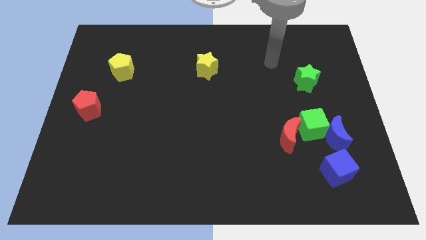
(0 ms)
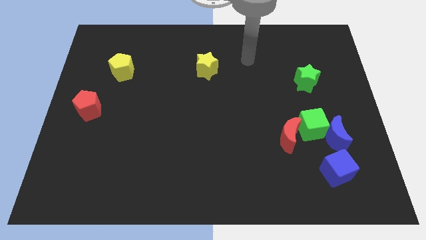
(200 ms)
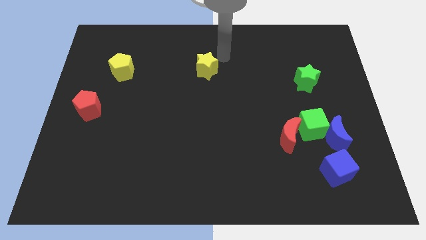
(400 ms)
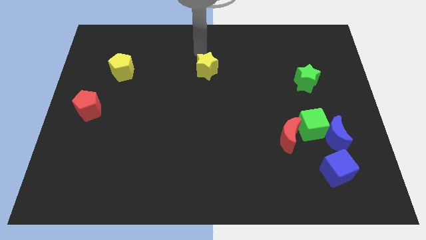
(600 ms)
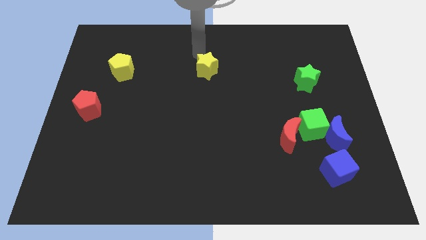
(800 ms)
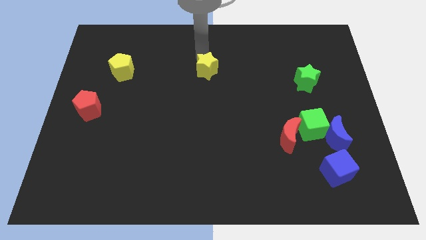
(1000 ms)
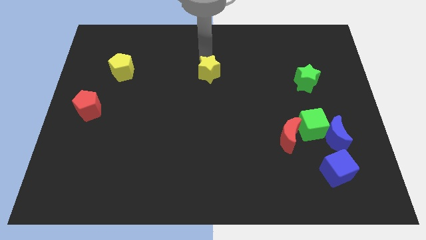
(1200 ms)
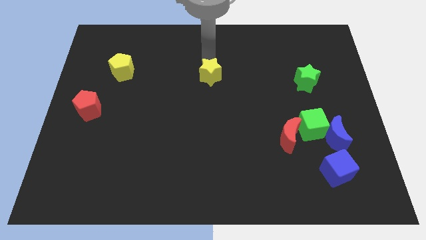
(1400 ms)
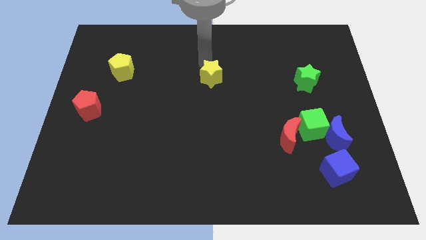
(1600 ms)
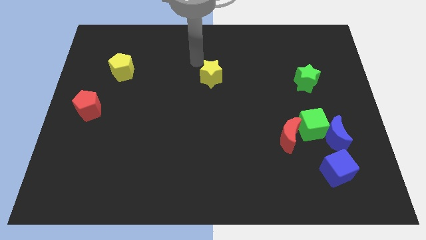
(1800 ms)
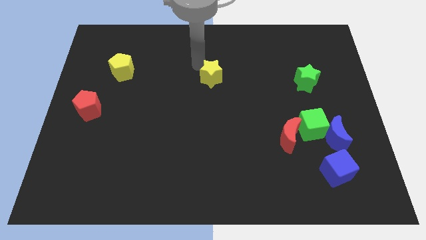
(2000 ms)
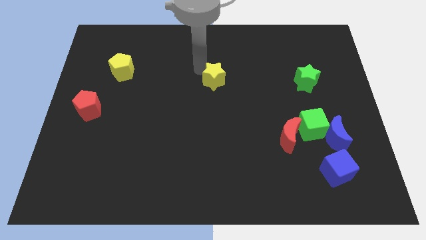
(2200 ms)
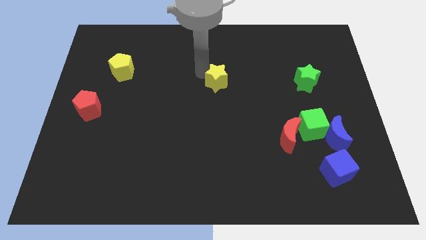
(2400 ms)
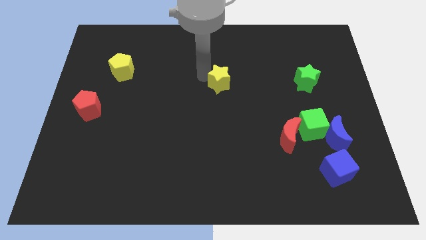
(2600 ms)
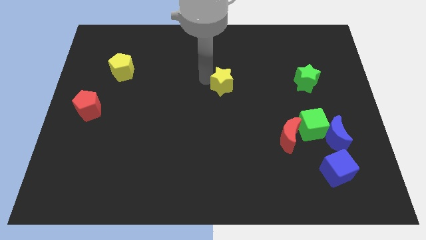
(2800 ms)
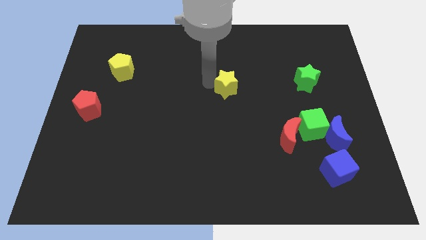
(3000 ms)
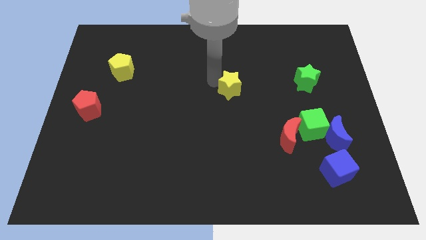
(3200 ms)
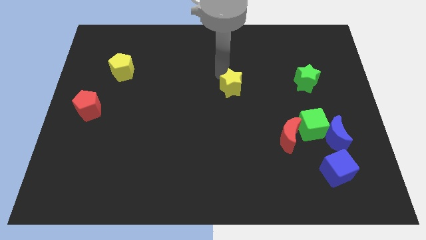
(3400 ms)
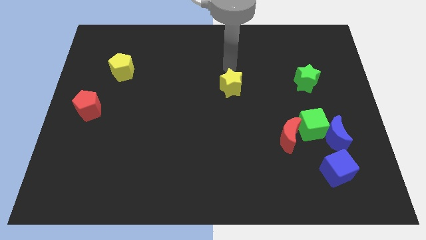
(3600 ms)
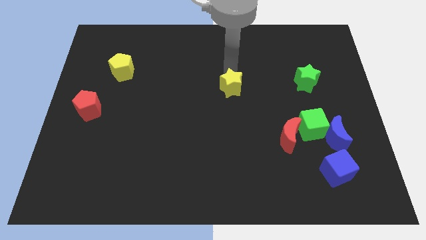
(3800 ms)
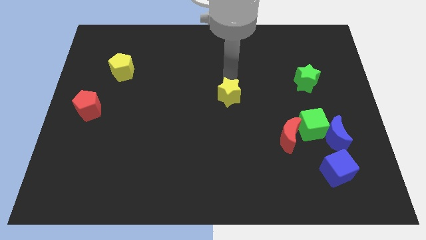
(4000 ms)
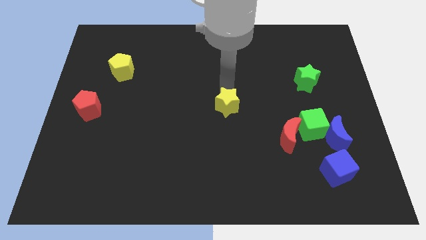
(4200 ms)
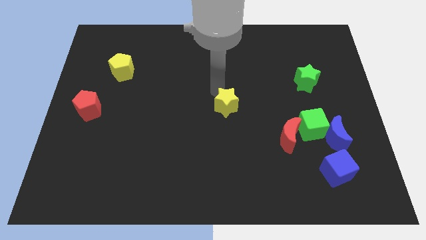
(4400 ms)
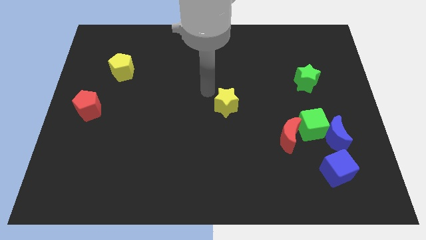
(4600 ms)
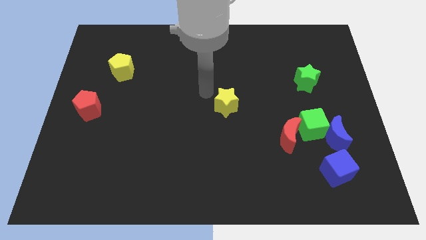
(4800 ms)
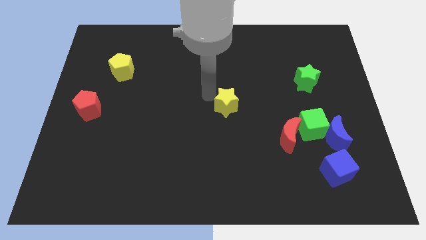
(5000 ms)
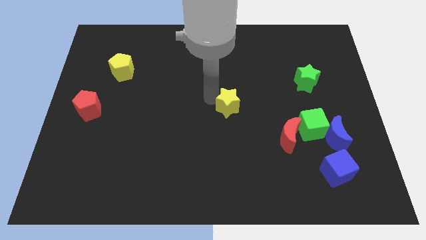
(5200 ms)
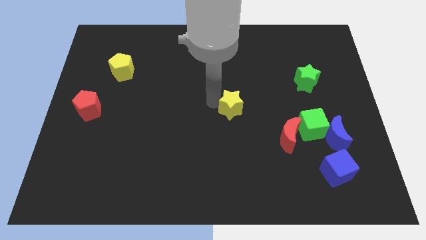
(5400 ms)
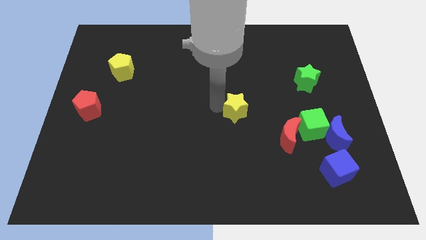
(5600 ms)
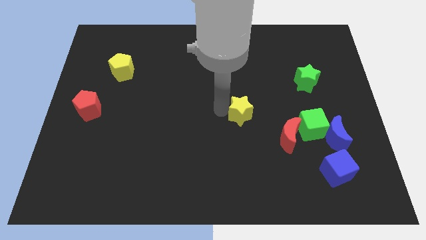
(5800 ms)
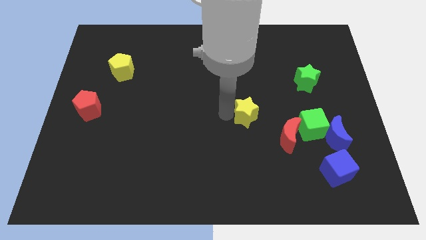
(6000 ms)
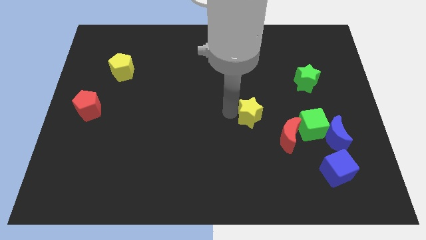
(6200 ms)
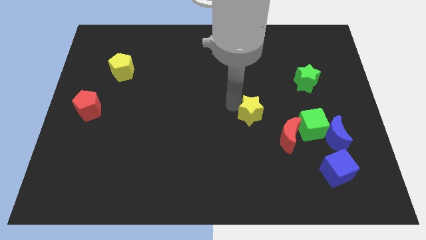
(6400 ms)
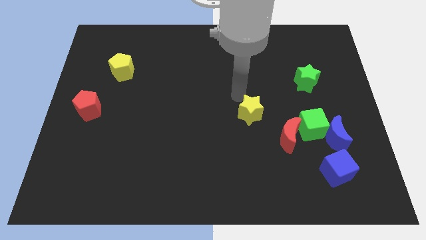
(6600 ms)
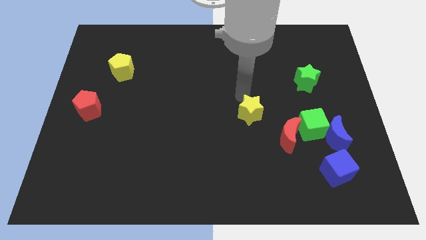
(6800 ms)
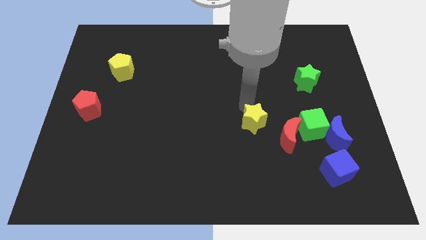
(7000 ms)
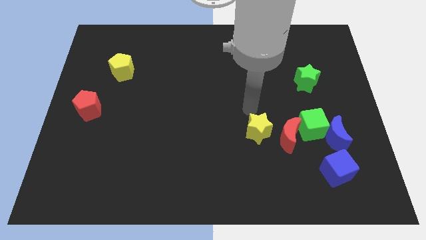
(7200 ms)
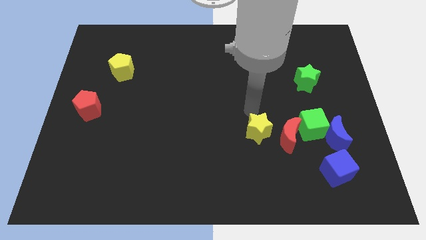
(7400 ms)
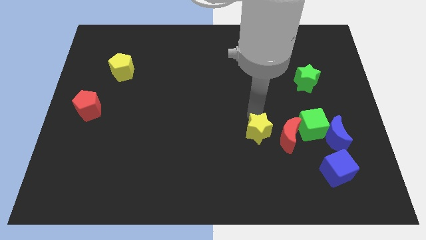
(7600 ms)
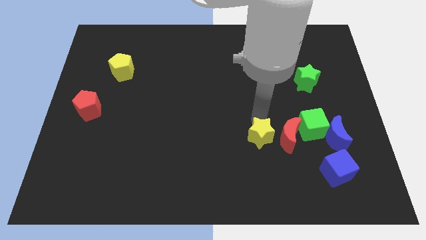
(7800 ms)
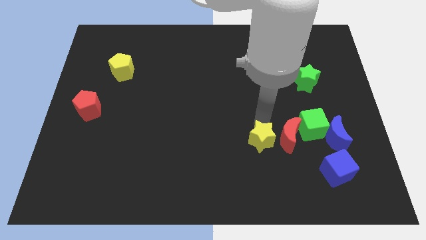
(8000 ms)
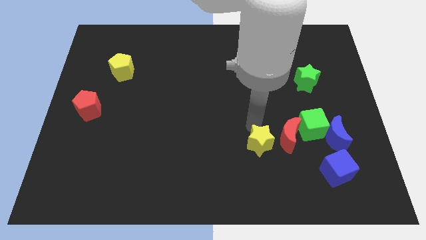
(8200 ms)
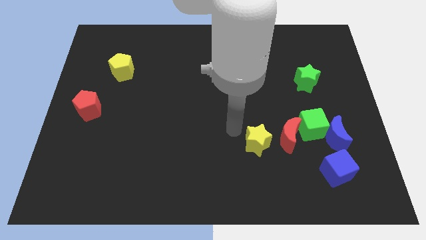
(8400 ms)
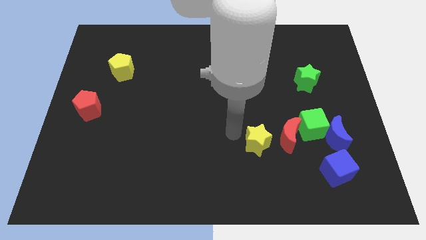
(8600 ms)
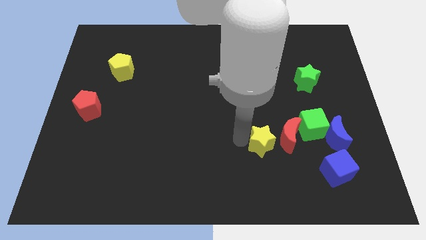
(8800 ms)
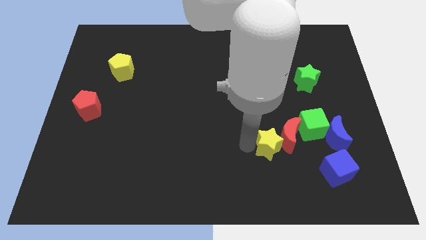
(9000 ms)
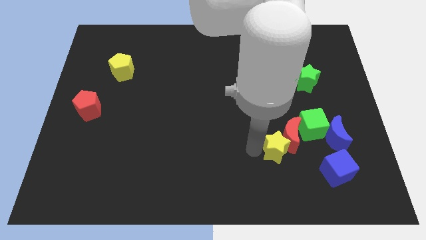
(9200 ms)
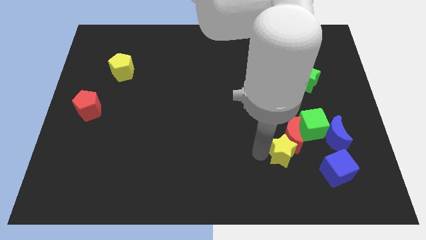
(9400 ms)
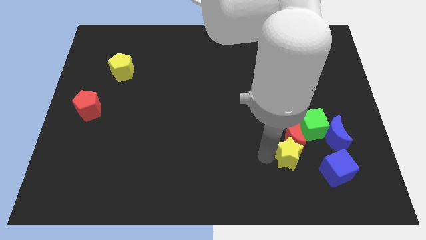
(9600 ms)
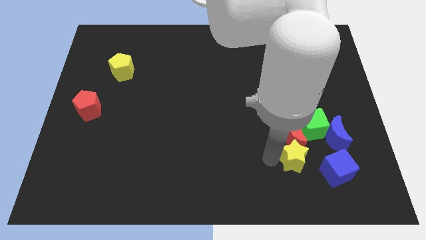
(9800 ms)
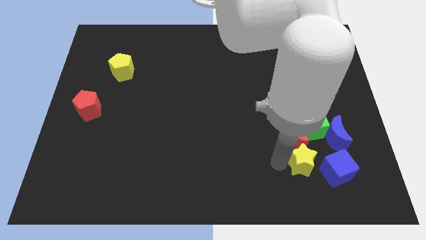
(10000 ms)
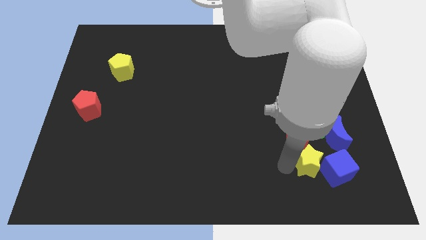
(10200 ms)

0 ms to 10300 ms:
push the yellow star close to the blue cube

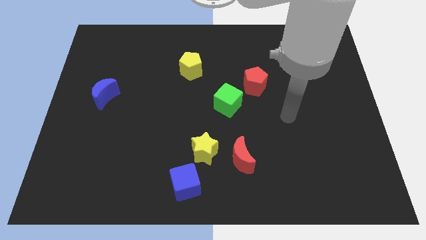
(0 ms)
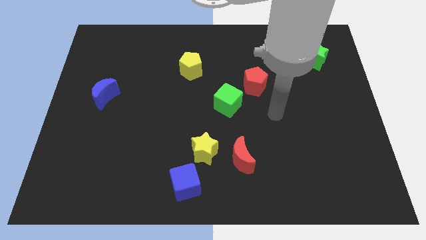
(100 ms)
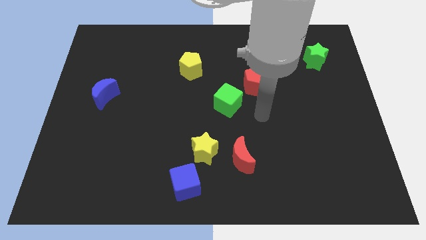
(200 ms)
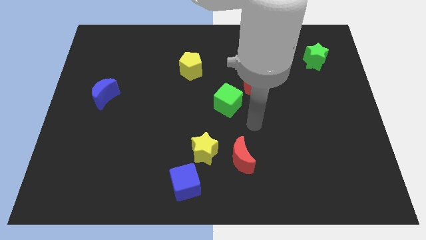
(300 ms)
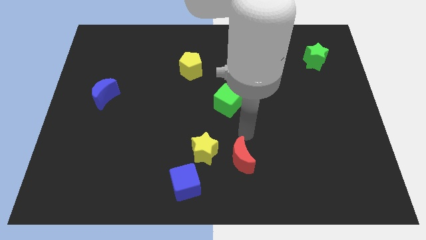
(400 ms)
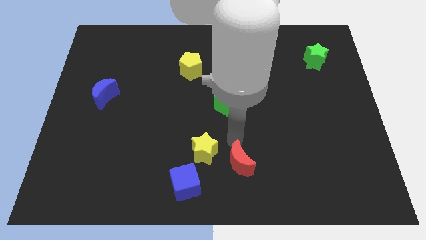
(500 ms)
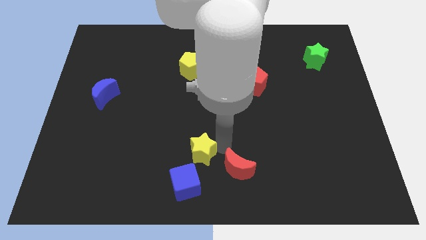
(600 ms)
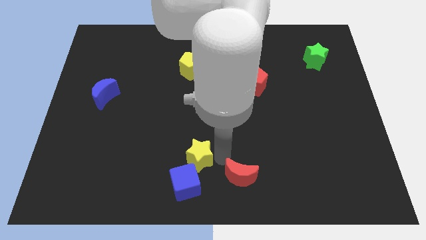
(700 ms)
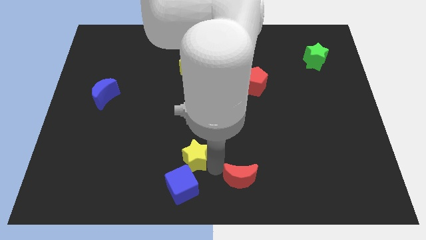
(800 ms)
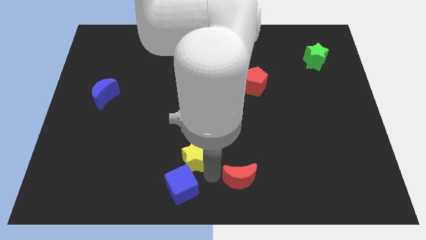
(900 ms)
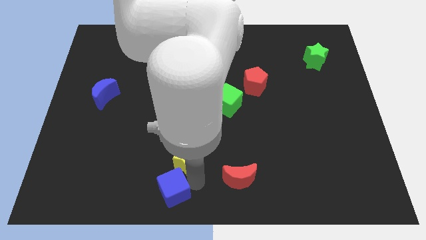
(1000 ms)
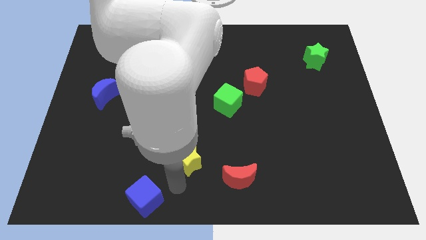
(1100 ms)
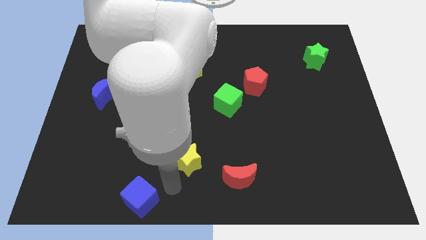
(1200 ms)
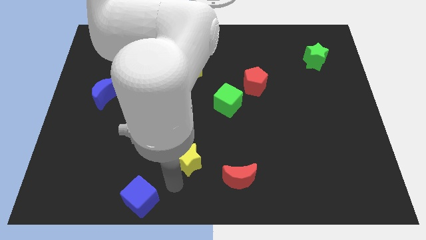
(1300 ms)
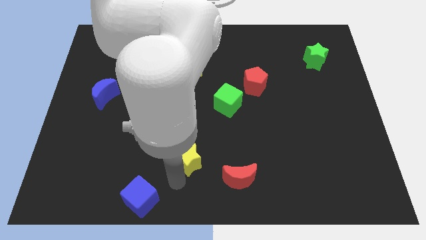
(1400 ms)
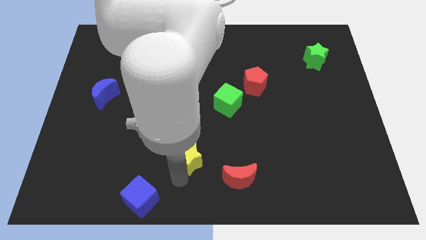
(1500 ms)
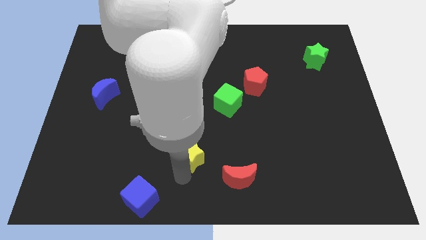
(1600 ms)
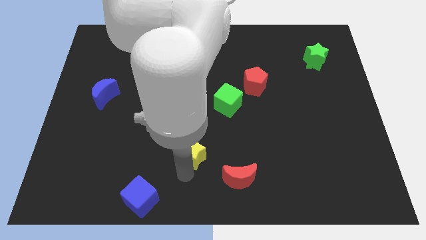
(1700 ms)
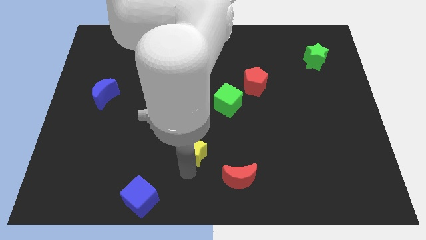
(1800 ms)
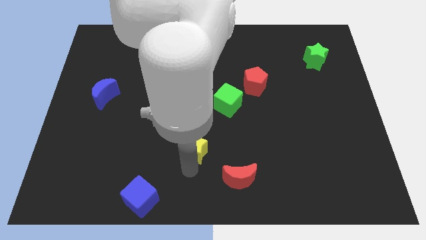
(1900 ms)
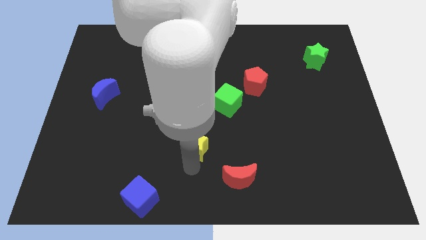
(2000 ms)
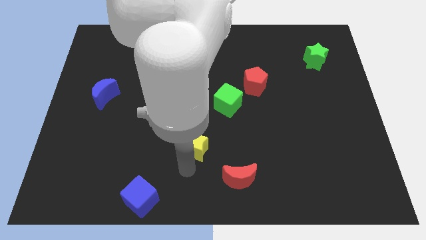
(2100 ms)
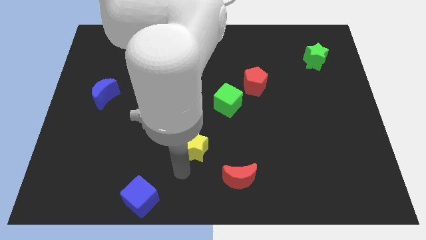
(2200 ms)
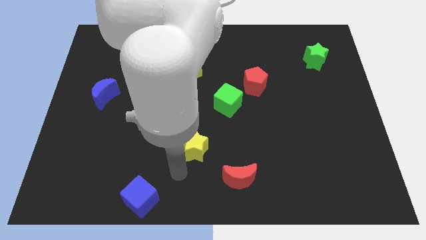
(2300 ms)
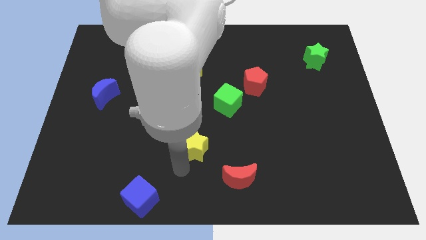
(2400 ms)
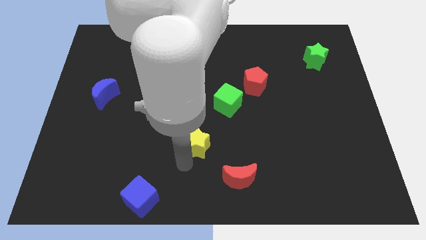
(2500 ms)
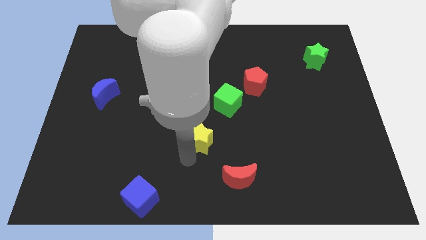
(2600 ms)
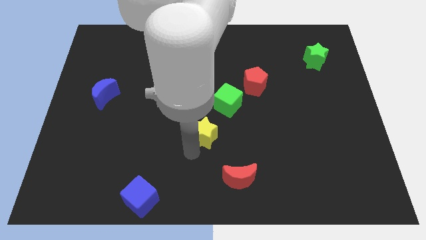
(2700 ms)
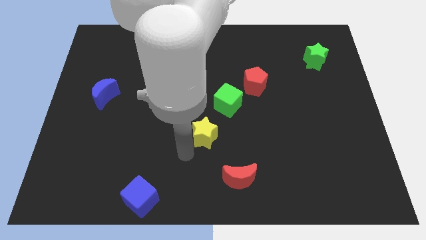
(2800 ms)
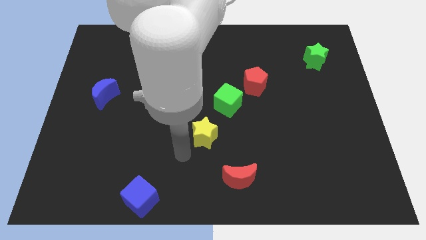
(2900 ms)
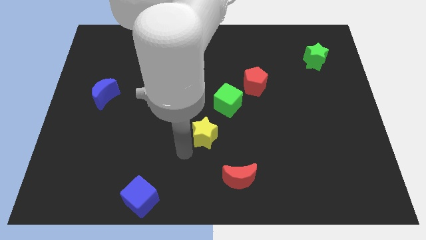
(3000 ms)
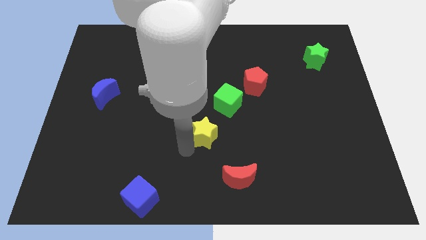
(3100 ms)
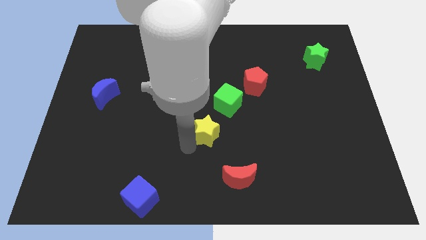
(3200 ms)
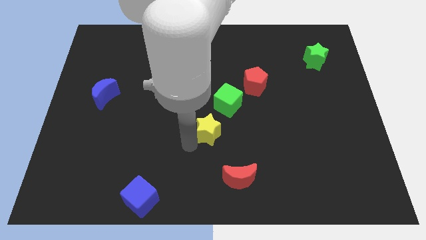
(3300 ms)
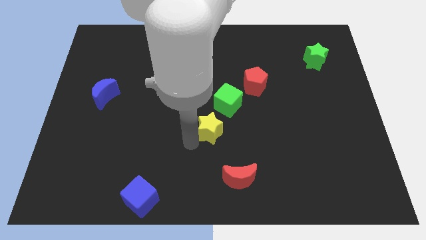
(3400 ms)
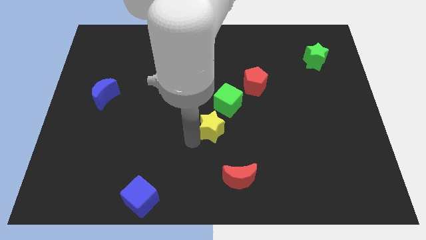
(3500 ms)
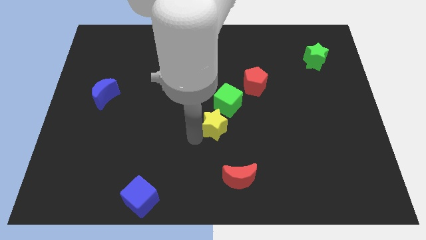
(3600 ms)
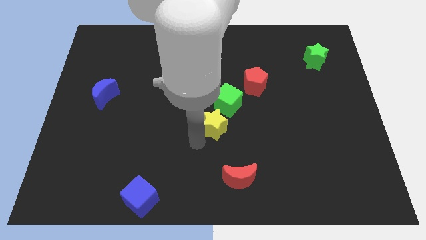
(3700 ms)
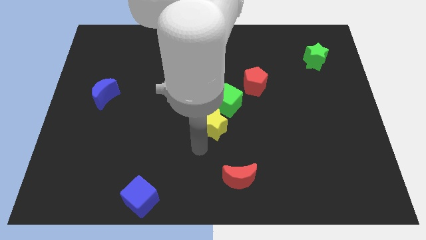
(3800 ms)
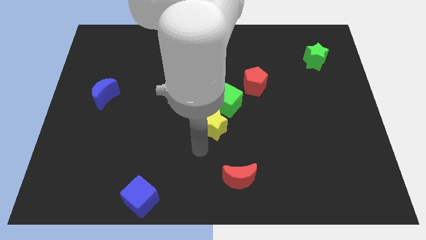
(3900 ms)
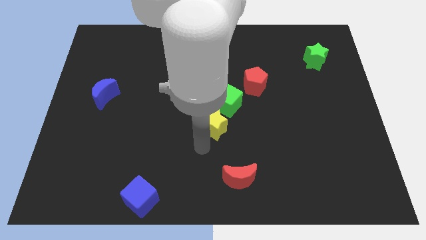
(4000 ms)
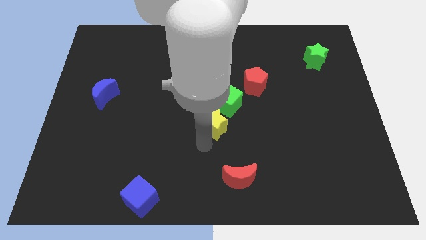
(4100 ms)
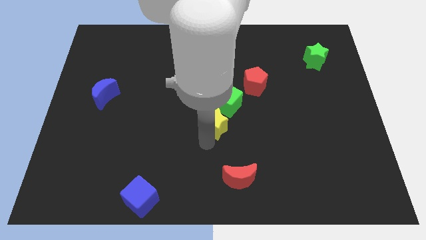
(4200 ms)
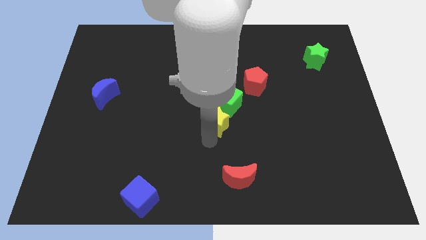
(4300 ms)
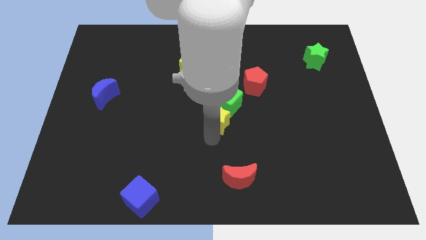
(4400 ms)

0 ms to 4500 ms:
put the yellow star towards the green cube
